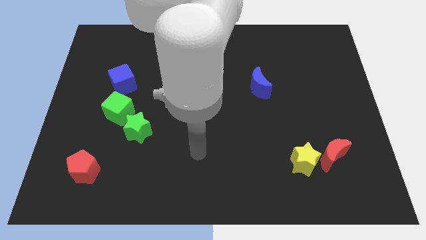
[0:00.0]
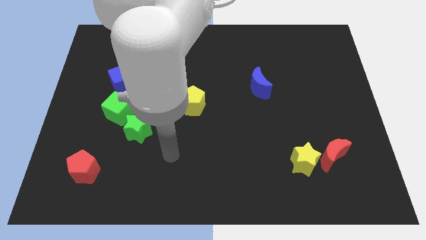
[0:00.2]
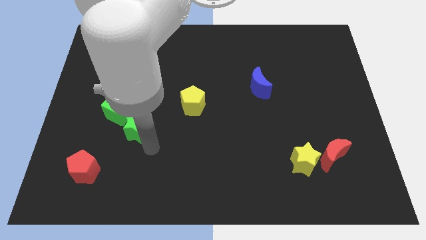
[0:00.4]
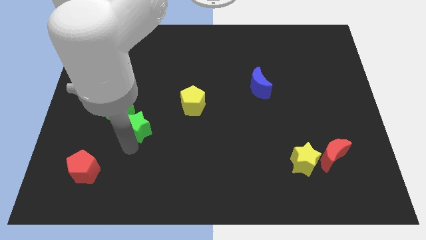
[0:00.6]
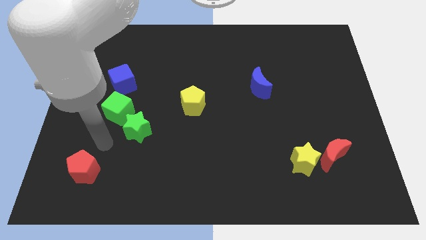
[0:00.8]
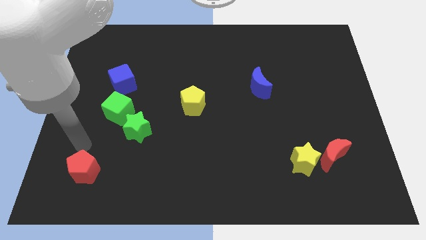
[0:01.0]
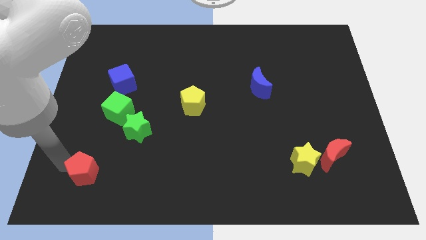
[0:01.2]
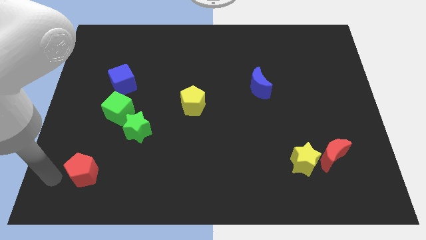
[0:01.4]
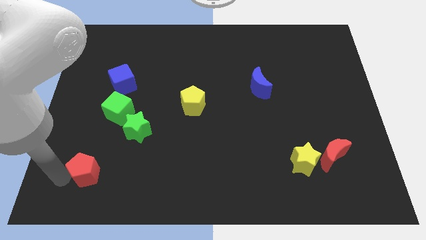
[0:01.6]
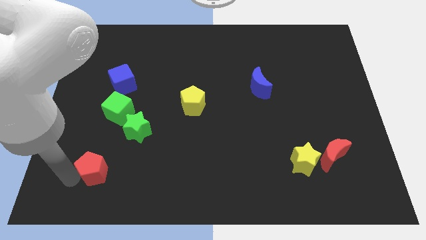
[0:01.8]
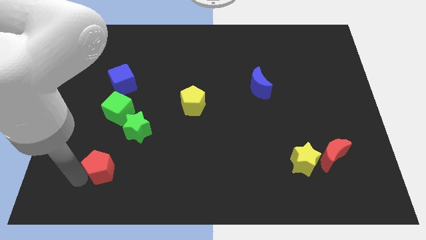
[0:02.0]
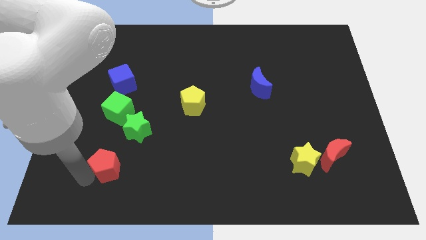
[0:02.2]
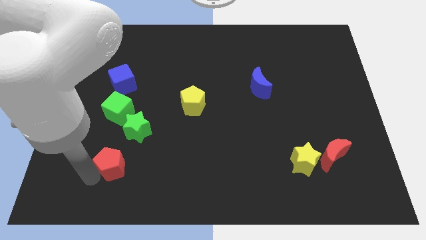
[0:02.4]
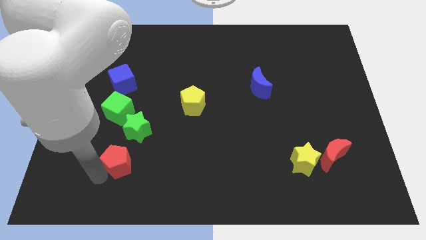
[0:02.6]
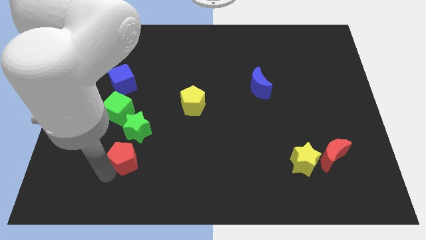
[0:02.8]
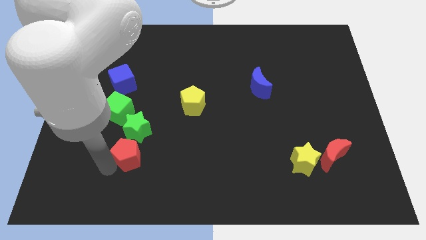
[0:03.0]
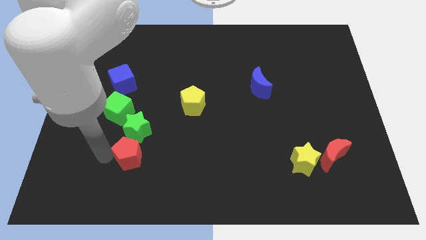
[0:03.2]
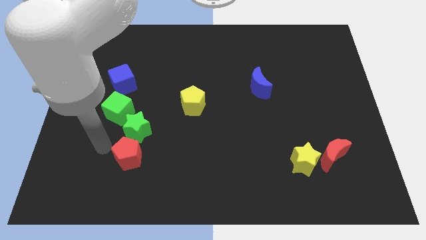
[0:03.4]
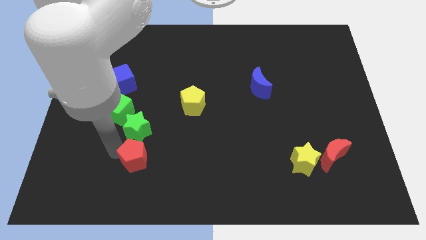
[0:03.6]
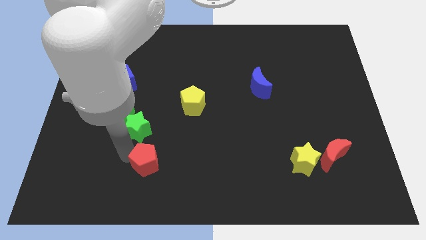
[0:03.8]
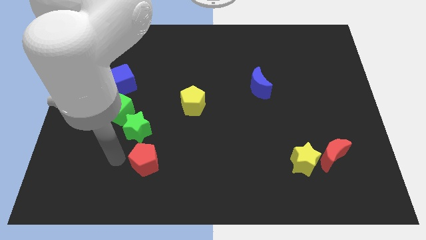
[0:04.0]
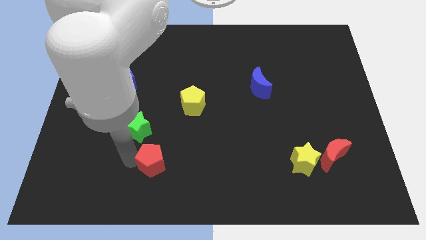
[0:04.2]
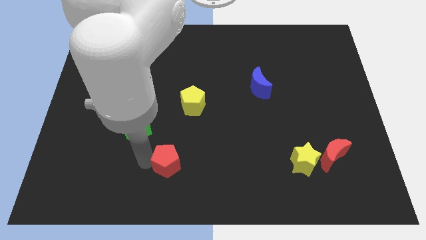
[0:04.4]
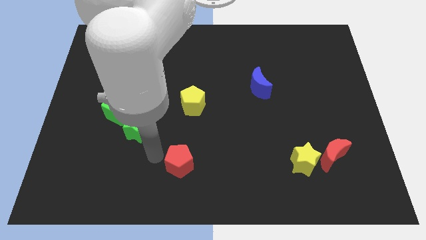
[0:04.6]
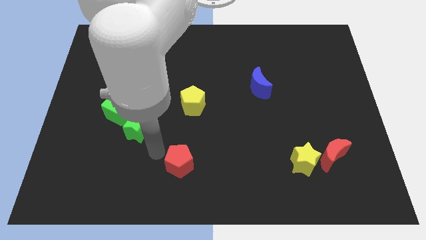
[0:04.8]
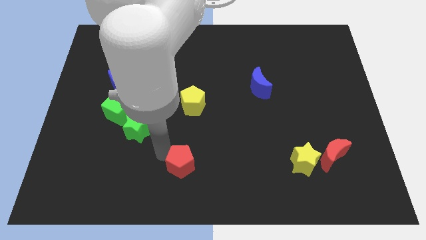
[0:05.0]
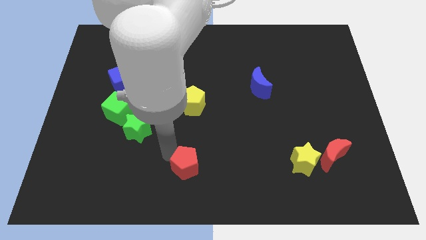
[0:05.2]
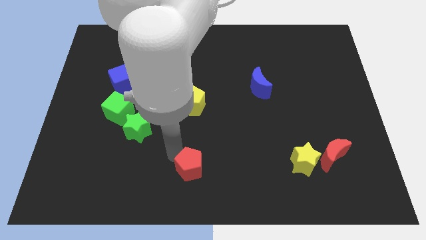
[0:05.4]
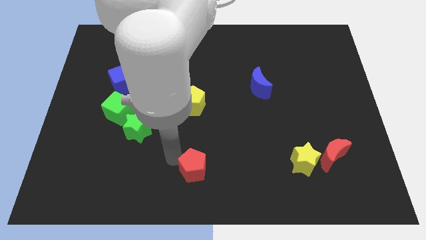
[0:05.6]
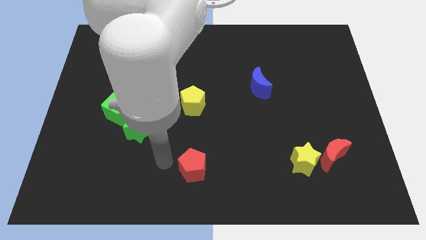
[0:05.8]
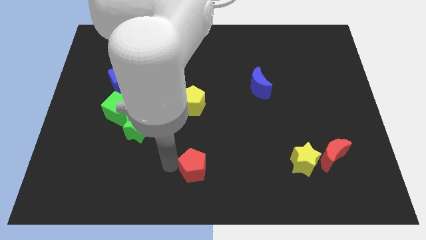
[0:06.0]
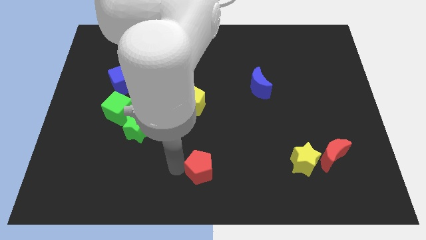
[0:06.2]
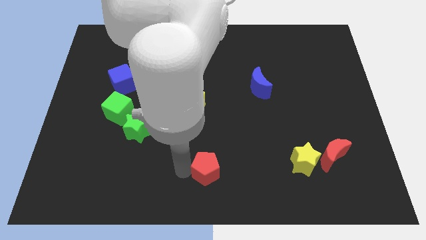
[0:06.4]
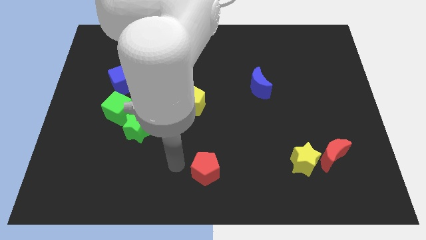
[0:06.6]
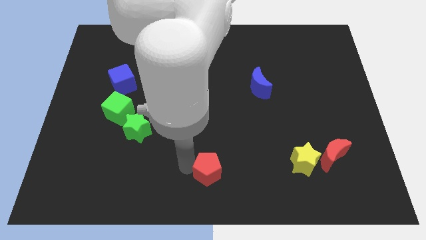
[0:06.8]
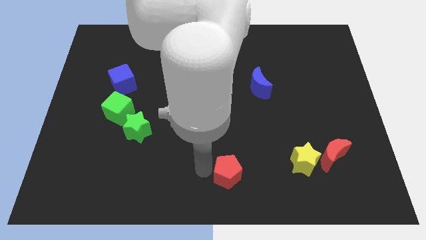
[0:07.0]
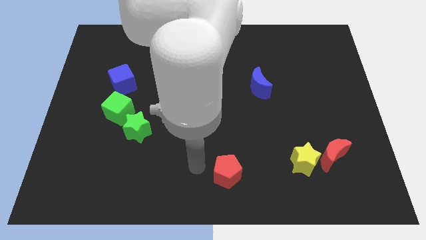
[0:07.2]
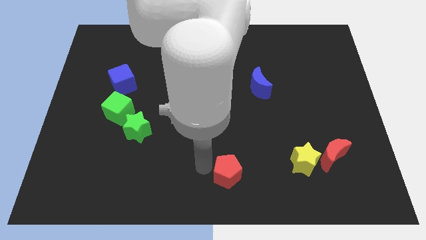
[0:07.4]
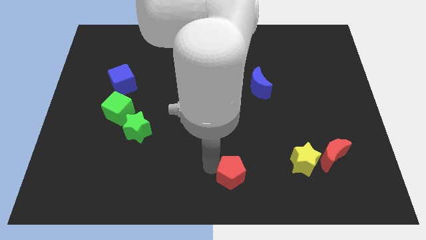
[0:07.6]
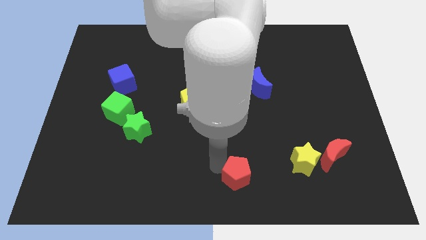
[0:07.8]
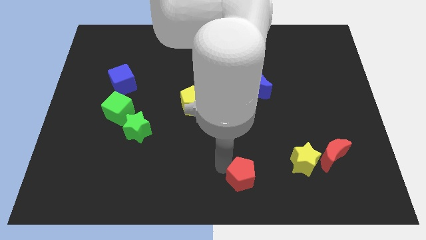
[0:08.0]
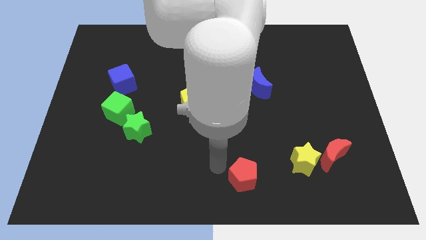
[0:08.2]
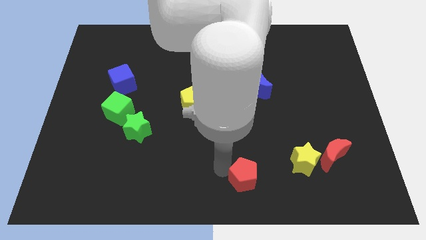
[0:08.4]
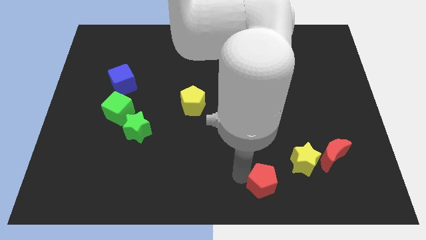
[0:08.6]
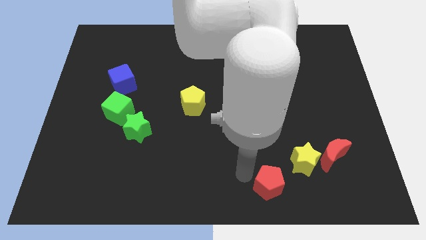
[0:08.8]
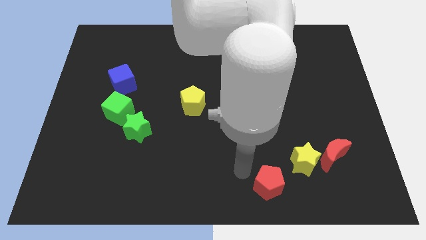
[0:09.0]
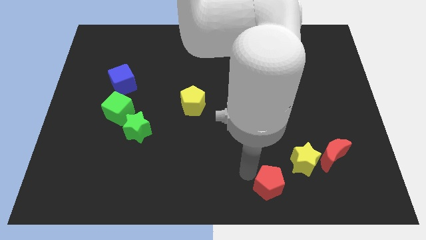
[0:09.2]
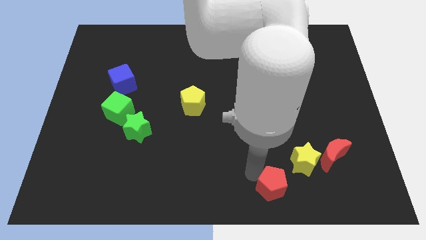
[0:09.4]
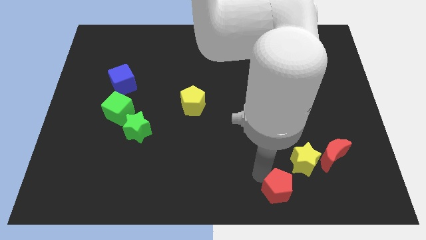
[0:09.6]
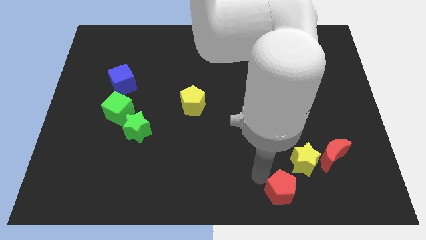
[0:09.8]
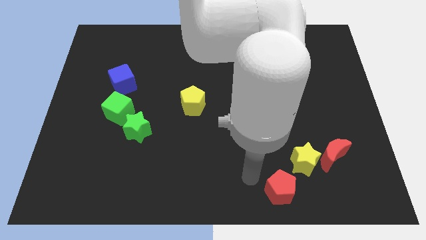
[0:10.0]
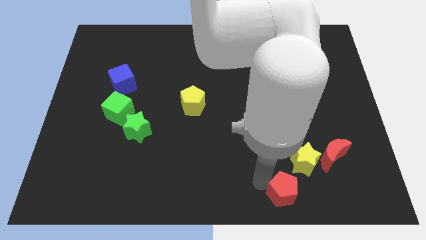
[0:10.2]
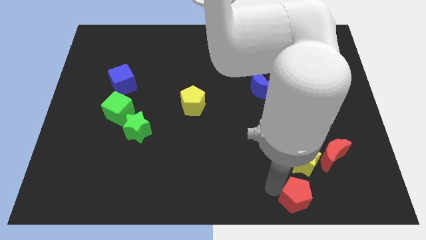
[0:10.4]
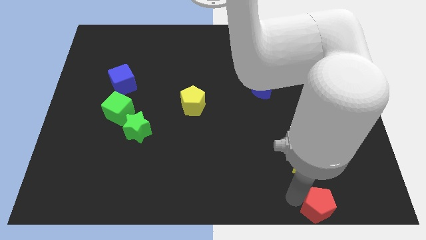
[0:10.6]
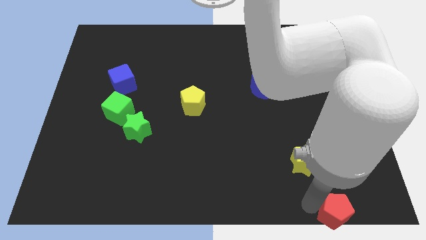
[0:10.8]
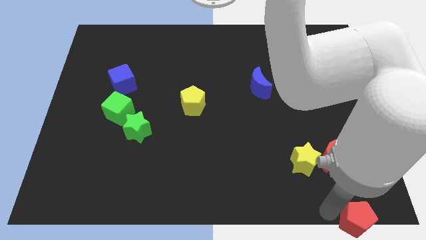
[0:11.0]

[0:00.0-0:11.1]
push the red pentagon to the lower right corner

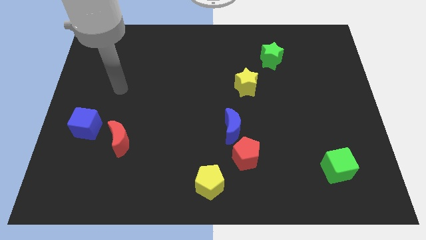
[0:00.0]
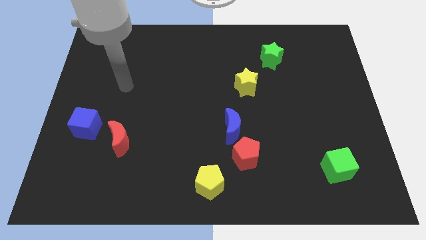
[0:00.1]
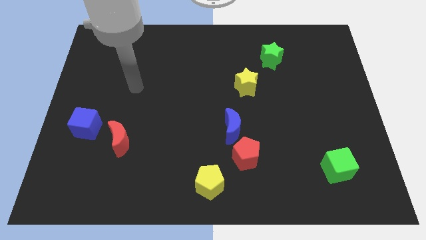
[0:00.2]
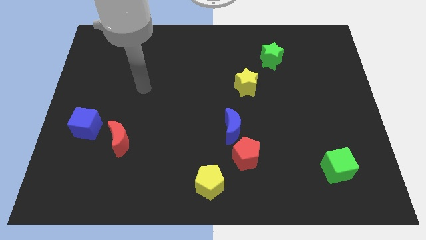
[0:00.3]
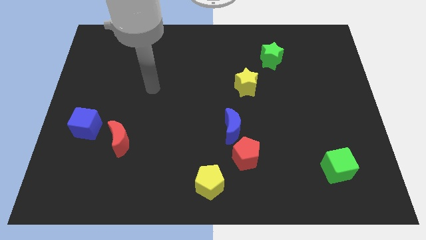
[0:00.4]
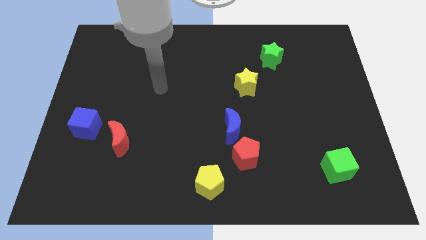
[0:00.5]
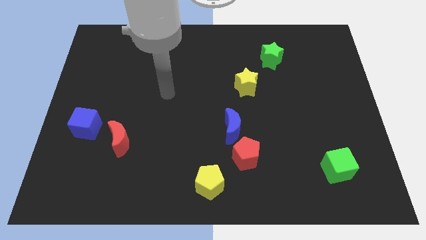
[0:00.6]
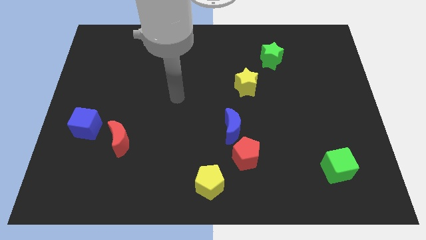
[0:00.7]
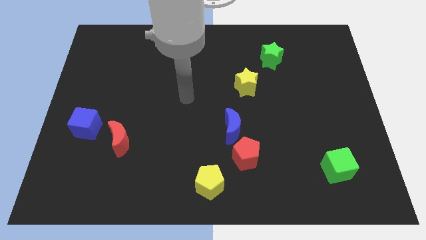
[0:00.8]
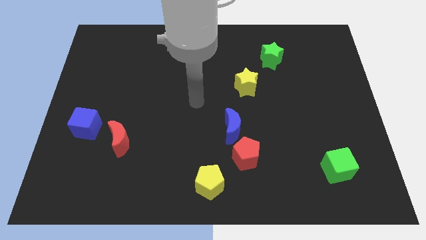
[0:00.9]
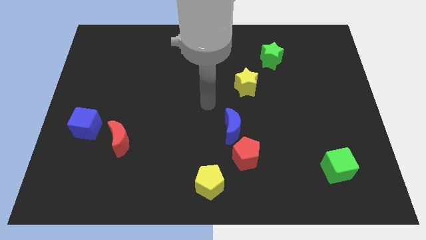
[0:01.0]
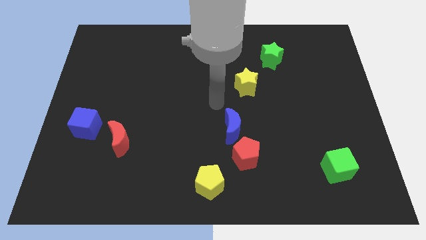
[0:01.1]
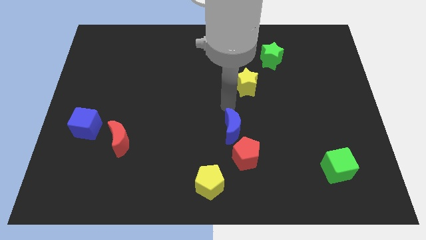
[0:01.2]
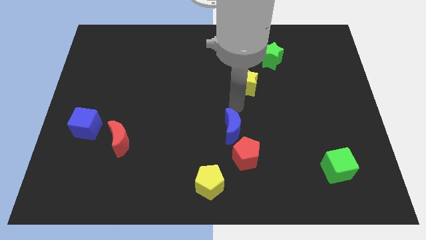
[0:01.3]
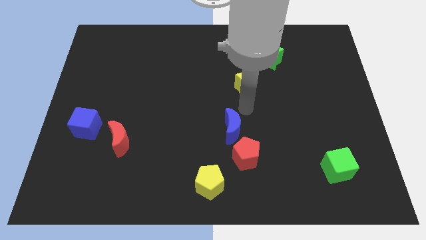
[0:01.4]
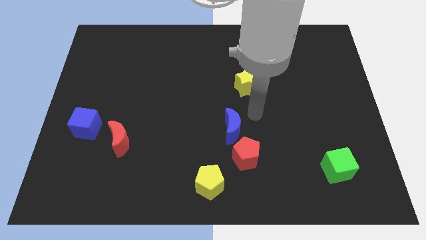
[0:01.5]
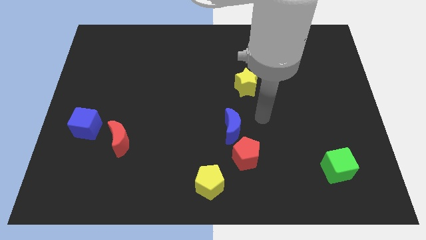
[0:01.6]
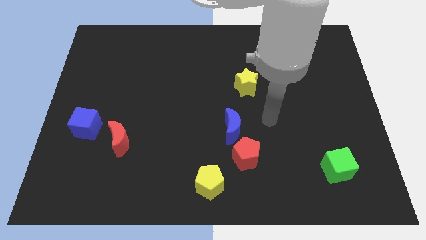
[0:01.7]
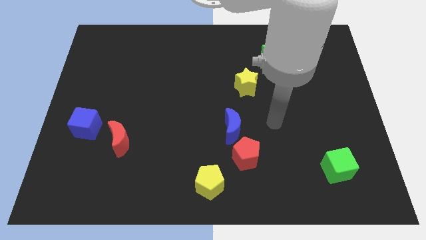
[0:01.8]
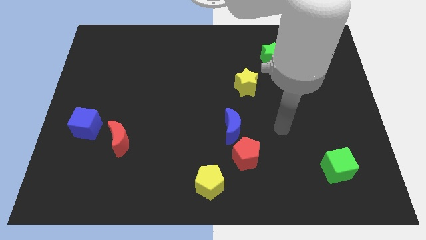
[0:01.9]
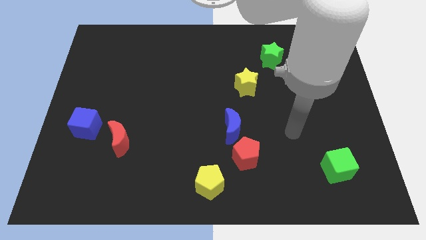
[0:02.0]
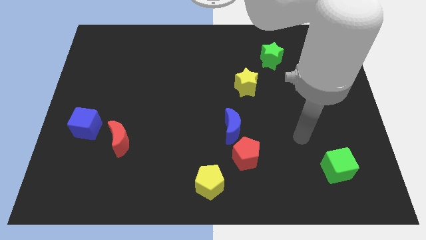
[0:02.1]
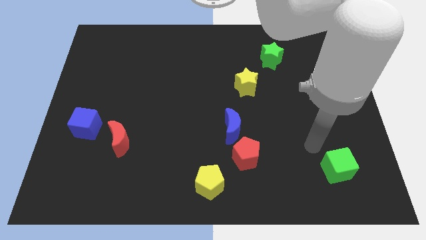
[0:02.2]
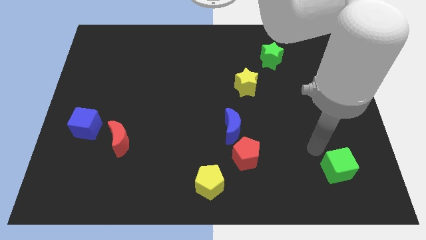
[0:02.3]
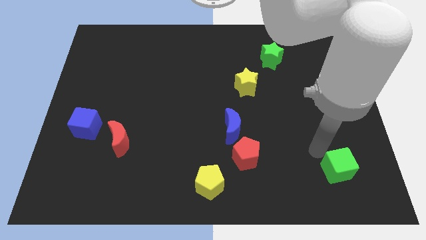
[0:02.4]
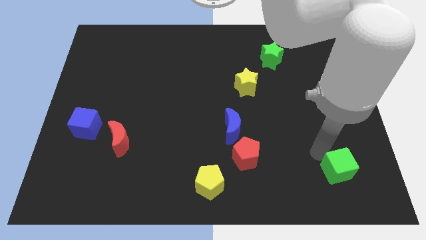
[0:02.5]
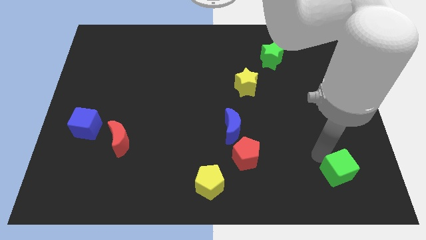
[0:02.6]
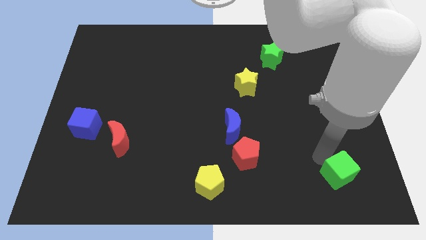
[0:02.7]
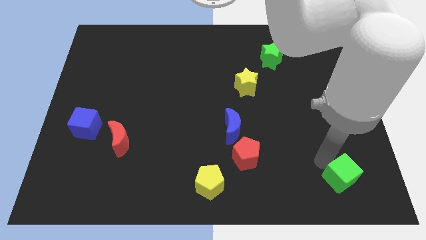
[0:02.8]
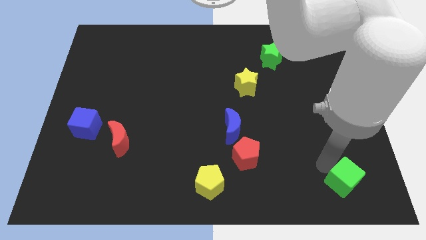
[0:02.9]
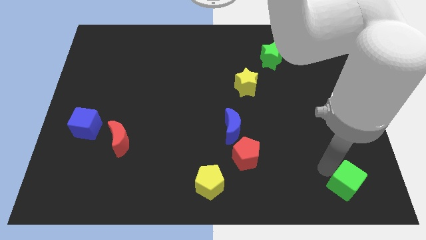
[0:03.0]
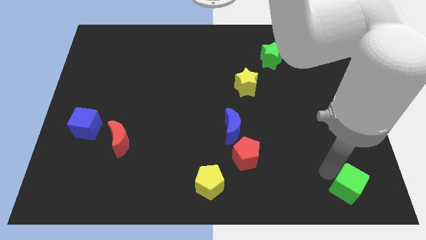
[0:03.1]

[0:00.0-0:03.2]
move the green cube to the lower right corner
